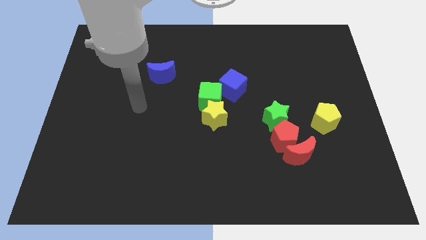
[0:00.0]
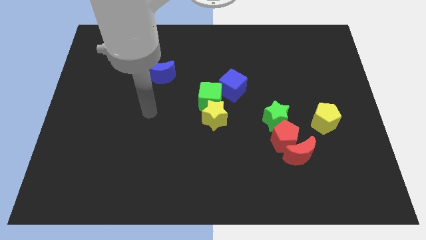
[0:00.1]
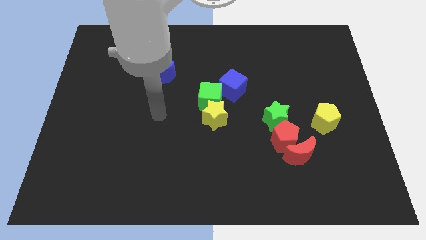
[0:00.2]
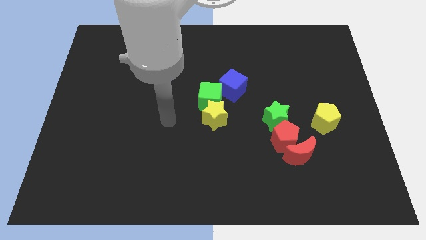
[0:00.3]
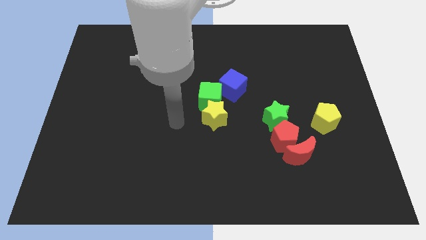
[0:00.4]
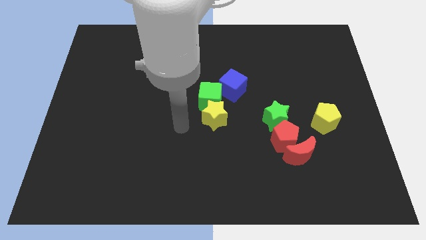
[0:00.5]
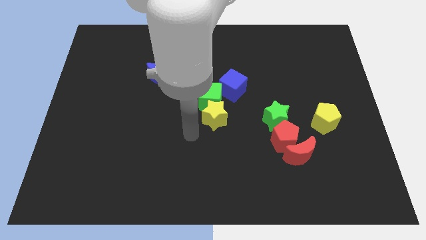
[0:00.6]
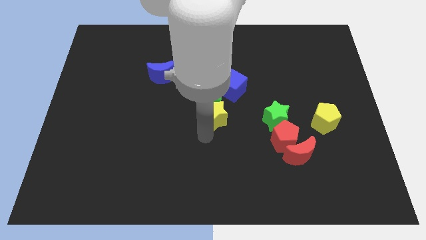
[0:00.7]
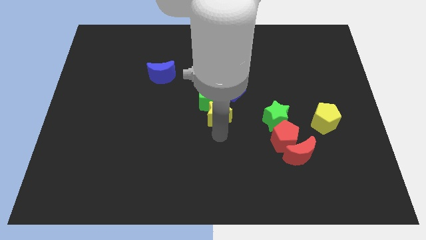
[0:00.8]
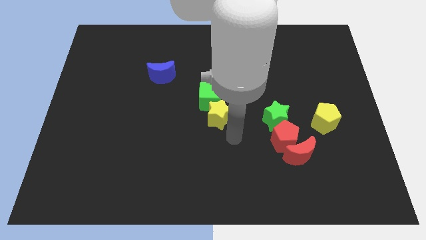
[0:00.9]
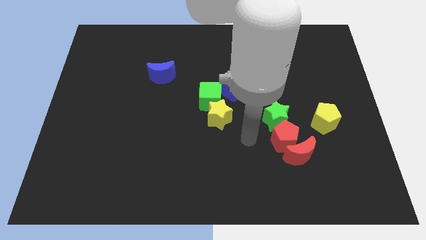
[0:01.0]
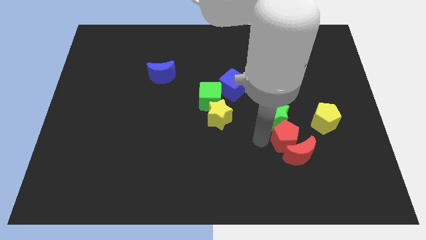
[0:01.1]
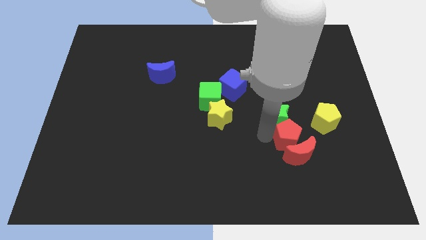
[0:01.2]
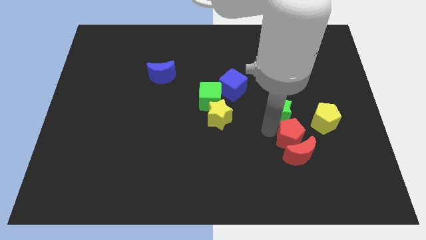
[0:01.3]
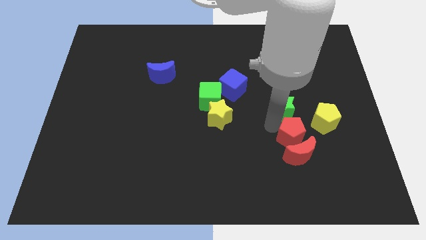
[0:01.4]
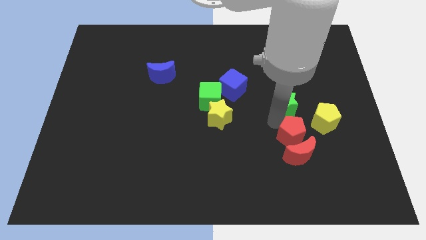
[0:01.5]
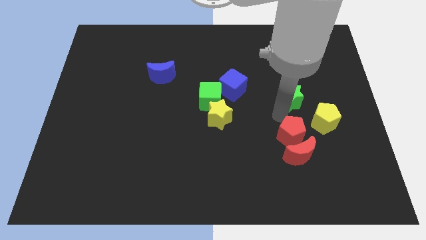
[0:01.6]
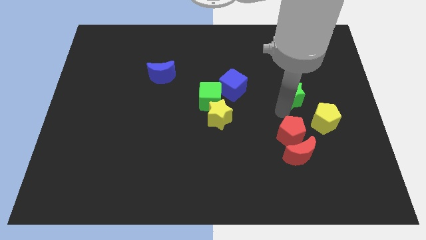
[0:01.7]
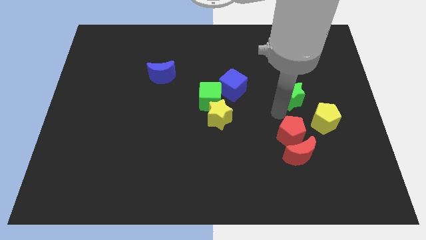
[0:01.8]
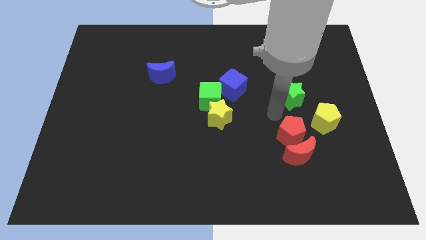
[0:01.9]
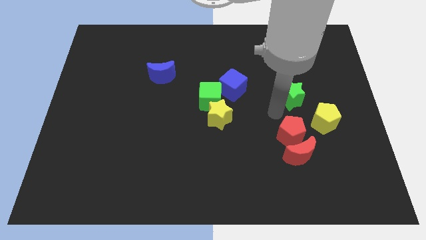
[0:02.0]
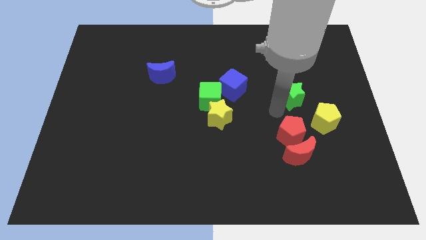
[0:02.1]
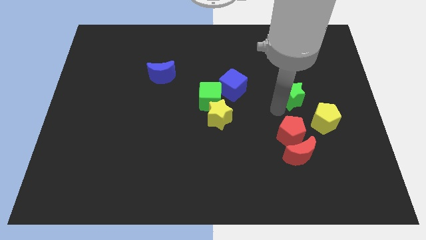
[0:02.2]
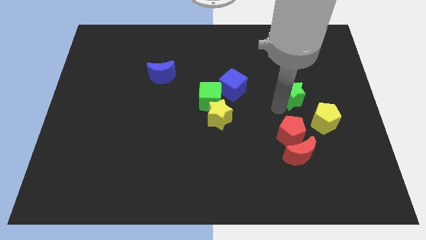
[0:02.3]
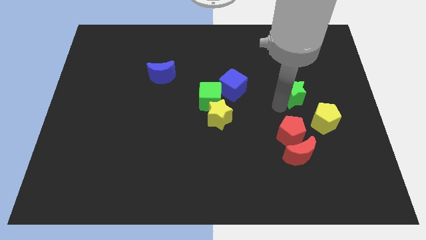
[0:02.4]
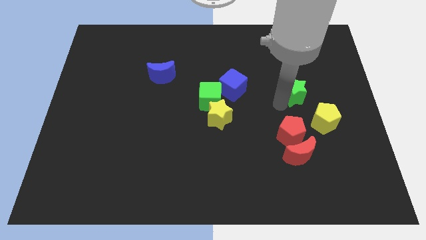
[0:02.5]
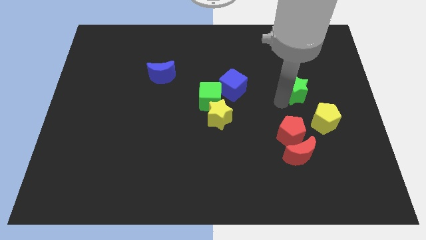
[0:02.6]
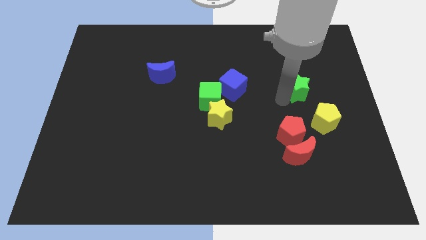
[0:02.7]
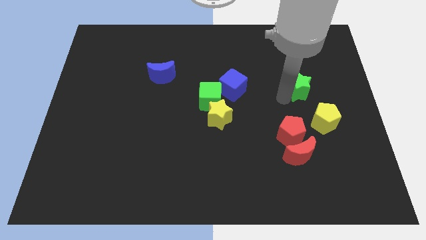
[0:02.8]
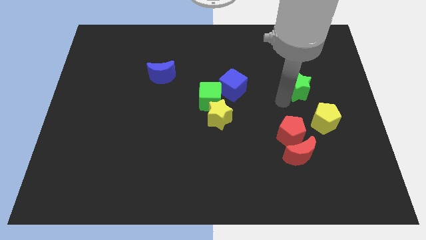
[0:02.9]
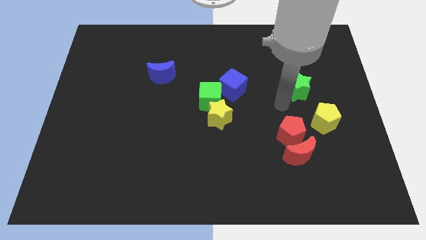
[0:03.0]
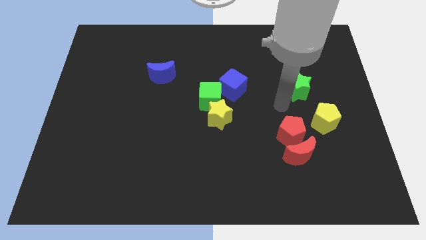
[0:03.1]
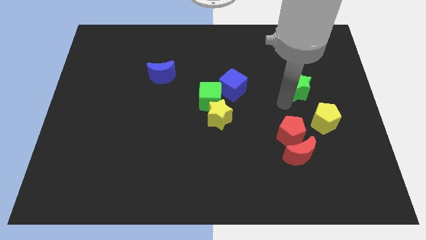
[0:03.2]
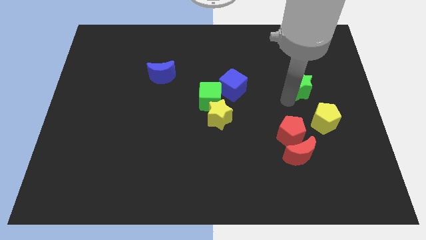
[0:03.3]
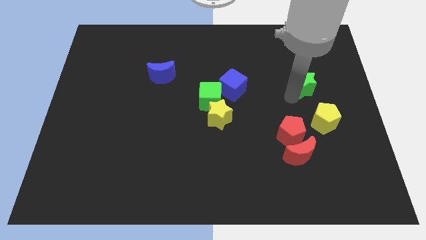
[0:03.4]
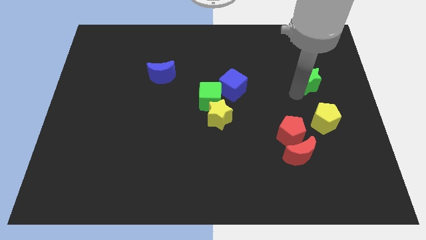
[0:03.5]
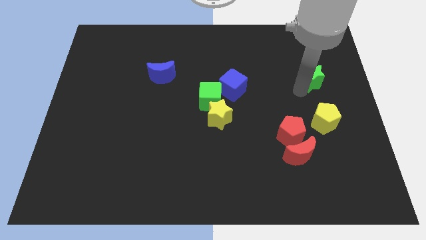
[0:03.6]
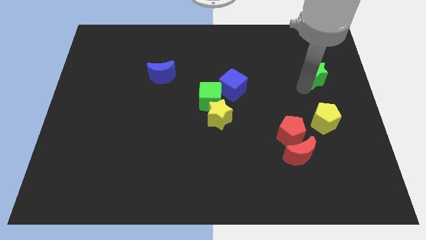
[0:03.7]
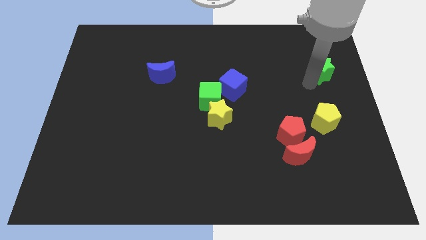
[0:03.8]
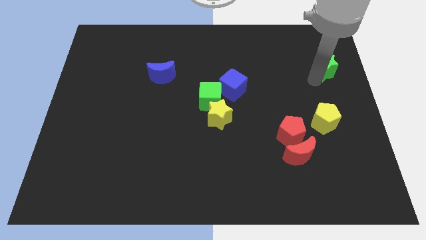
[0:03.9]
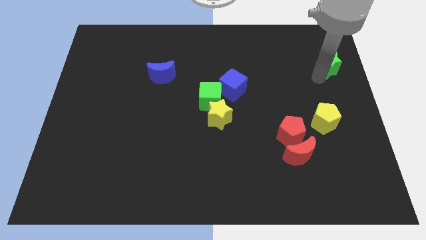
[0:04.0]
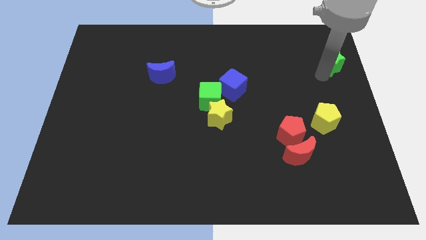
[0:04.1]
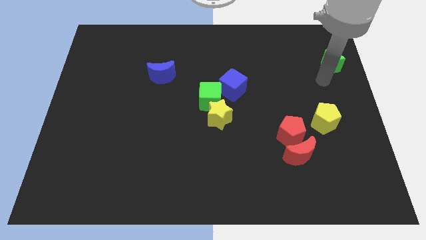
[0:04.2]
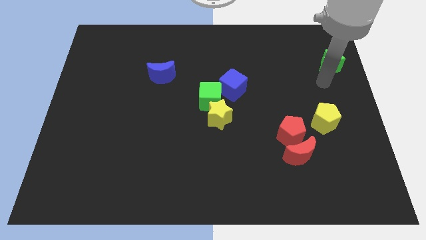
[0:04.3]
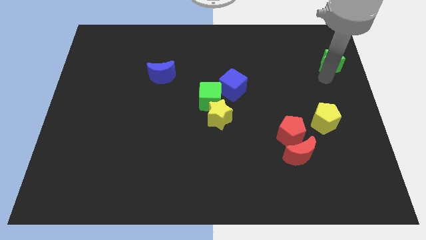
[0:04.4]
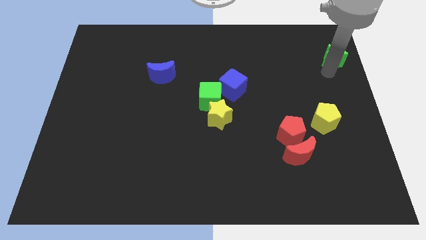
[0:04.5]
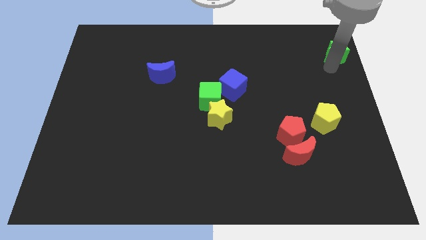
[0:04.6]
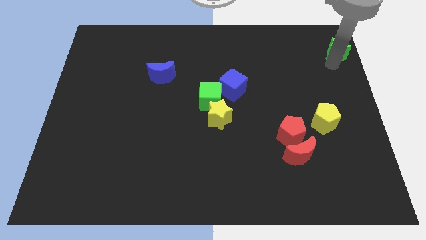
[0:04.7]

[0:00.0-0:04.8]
put the green star to the upper right corner

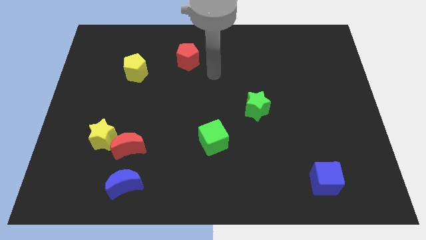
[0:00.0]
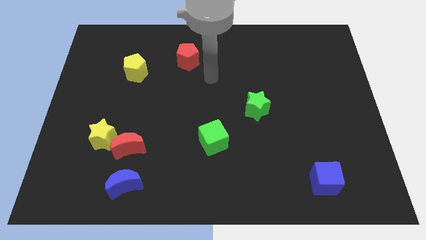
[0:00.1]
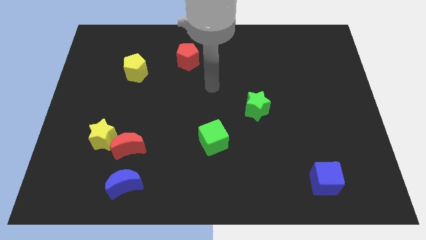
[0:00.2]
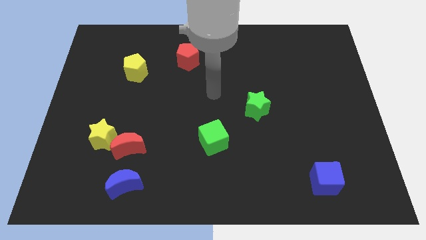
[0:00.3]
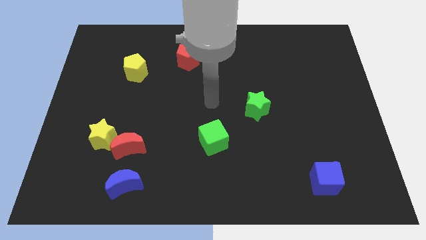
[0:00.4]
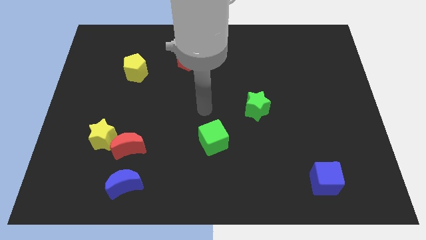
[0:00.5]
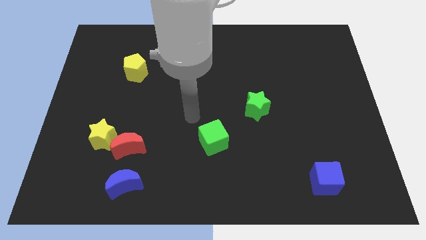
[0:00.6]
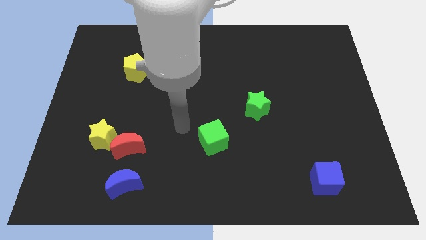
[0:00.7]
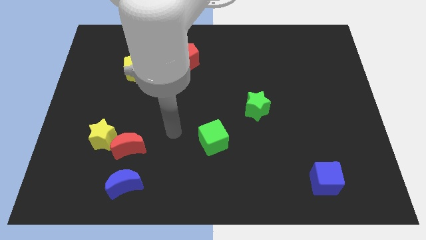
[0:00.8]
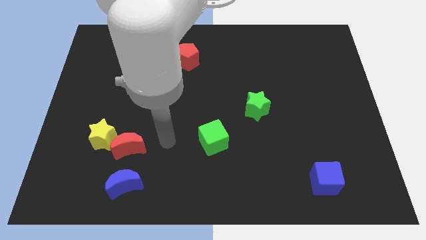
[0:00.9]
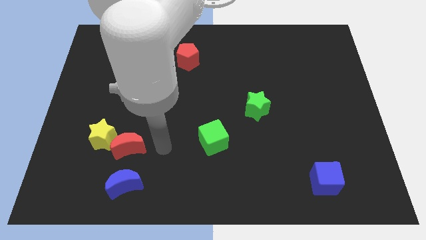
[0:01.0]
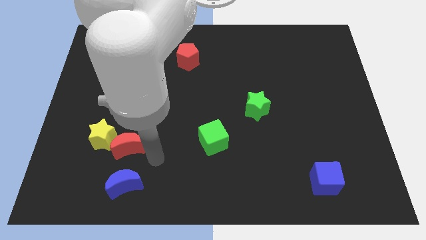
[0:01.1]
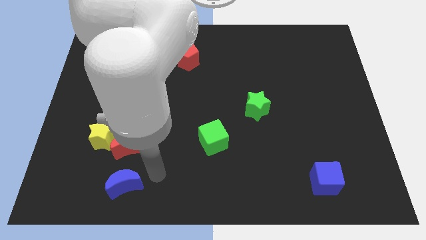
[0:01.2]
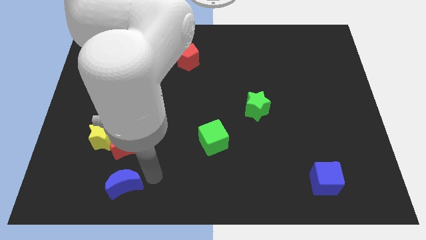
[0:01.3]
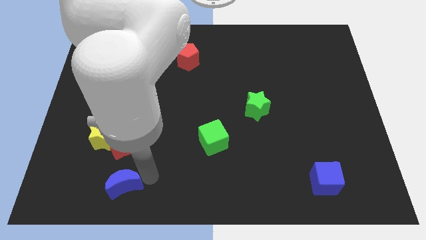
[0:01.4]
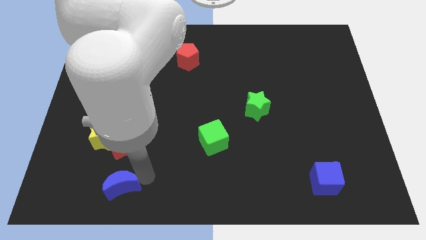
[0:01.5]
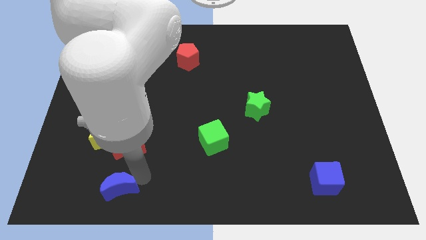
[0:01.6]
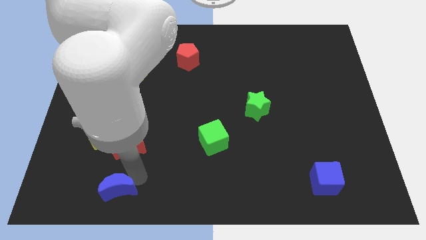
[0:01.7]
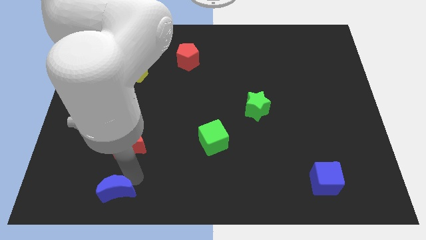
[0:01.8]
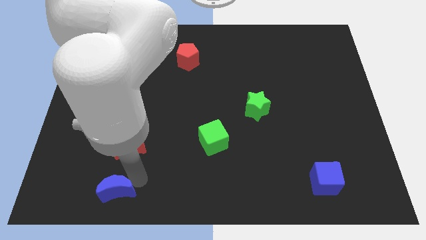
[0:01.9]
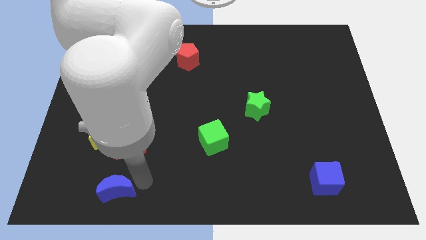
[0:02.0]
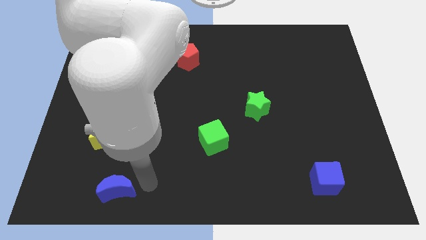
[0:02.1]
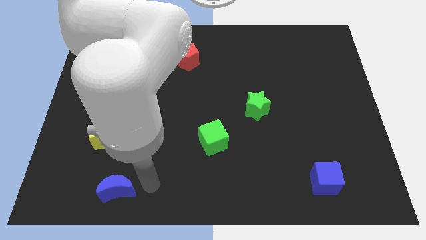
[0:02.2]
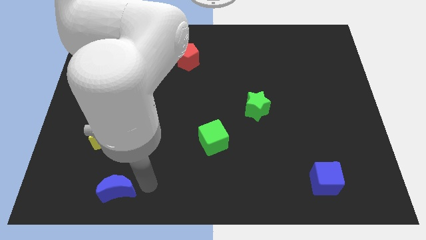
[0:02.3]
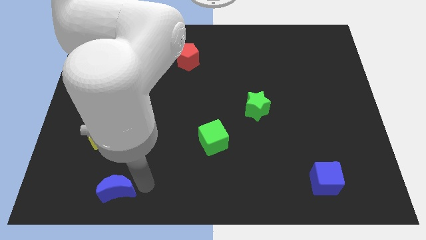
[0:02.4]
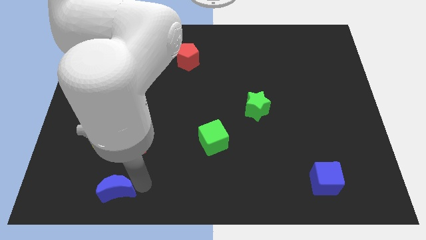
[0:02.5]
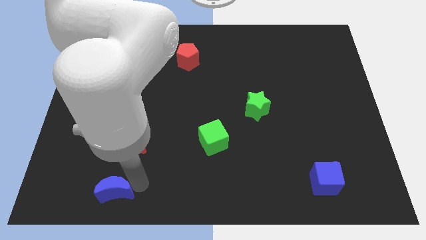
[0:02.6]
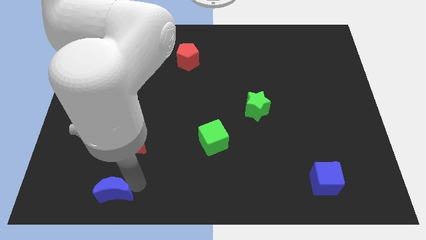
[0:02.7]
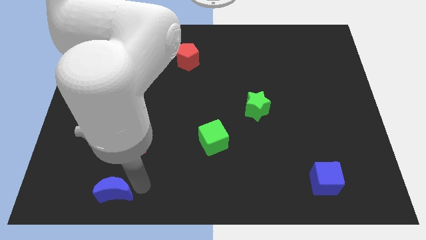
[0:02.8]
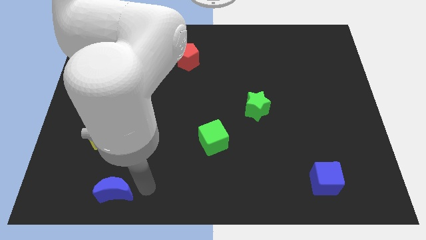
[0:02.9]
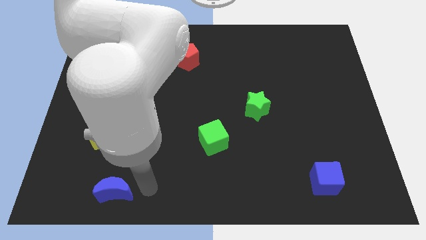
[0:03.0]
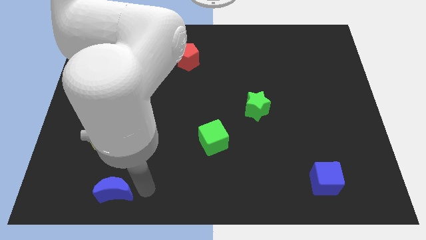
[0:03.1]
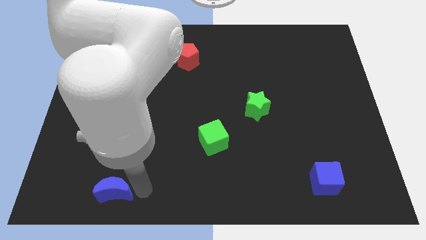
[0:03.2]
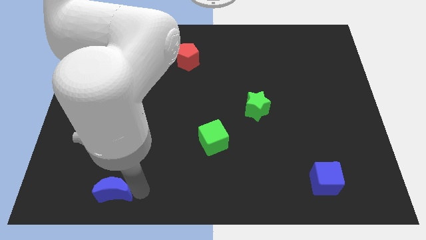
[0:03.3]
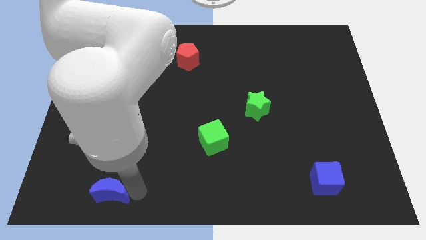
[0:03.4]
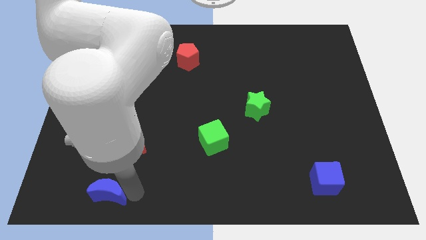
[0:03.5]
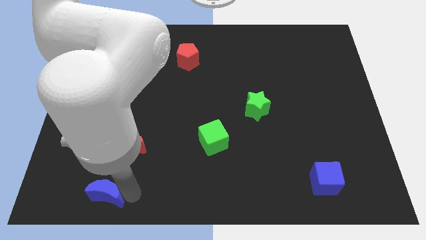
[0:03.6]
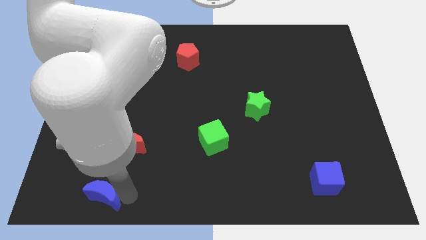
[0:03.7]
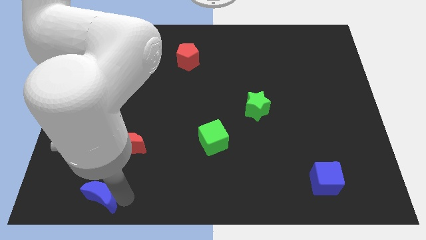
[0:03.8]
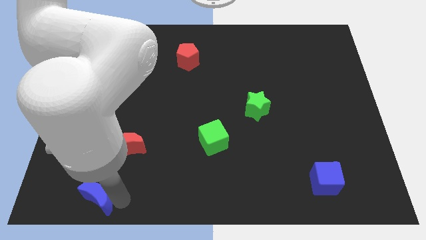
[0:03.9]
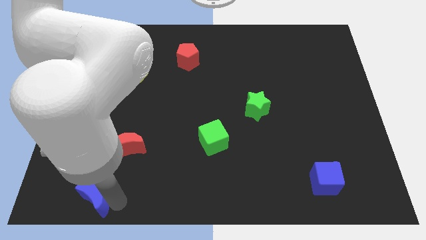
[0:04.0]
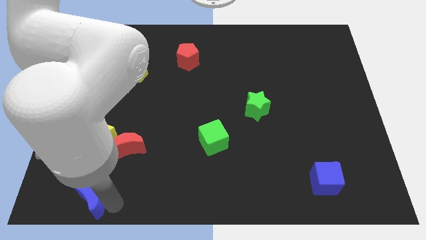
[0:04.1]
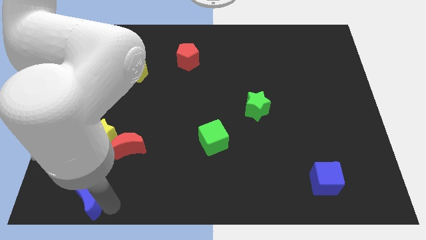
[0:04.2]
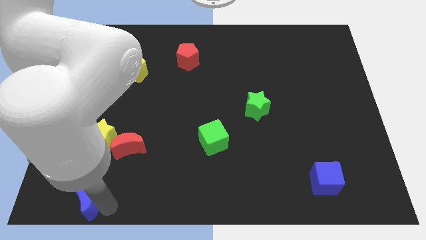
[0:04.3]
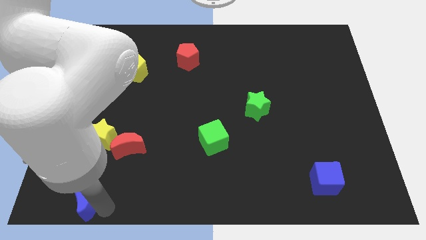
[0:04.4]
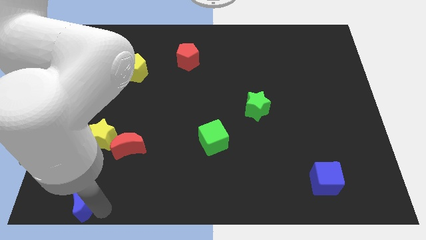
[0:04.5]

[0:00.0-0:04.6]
push the blue moon to the bottom left corner
